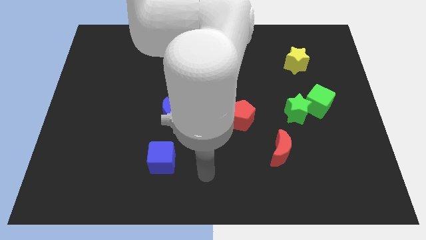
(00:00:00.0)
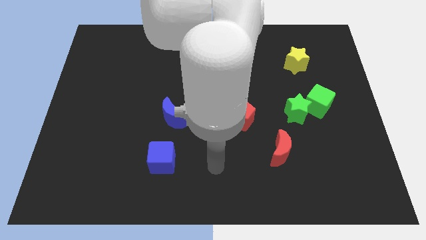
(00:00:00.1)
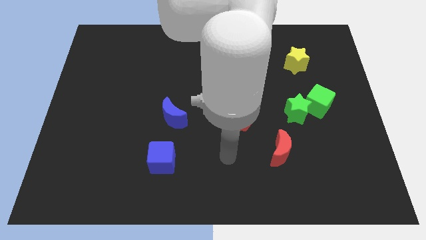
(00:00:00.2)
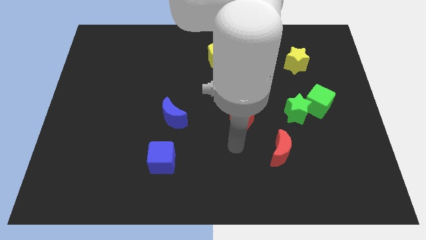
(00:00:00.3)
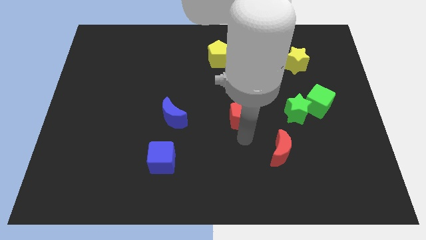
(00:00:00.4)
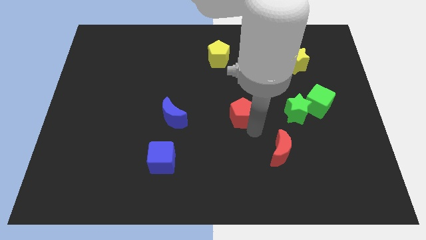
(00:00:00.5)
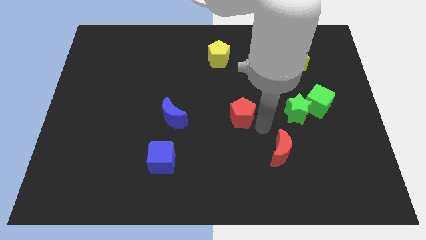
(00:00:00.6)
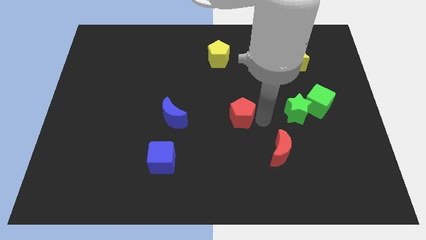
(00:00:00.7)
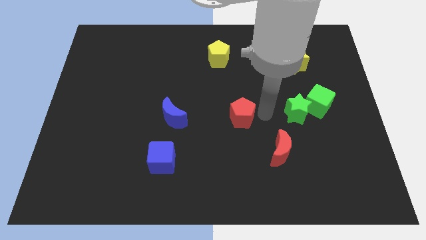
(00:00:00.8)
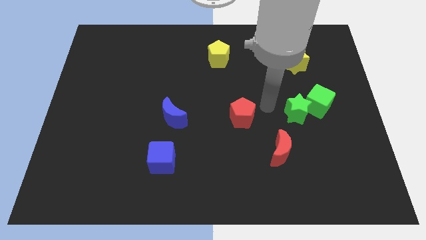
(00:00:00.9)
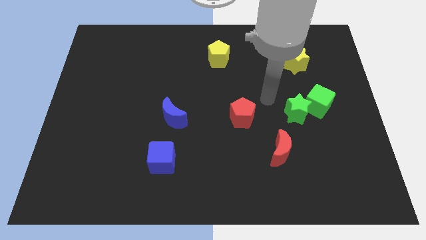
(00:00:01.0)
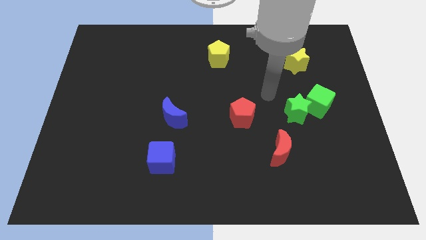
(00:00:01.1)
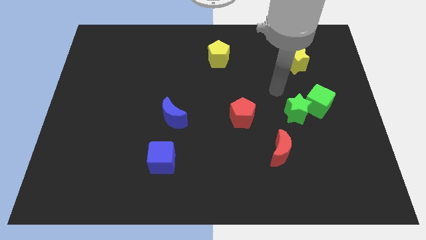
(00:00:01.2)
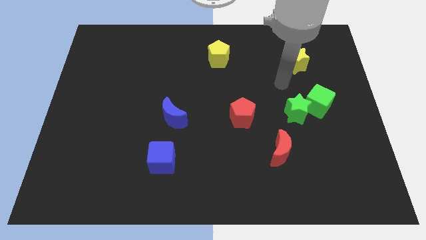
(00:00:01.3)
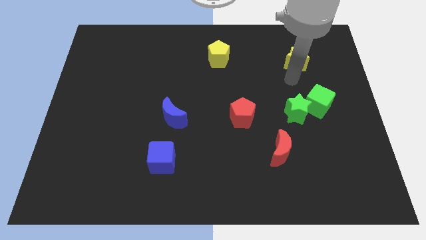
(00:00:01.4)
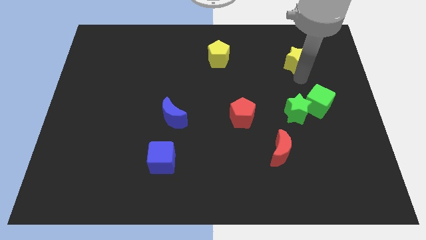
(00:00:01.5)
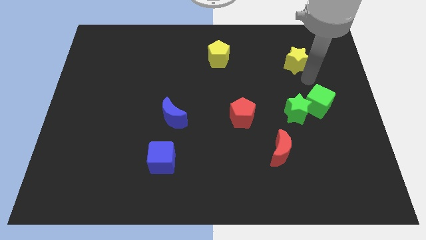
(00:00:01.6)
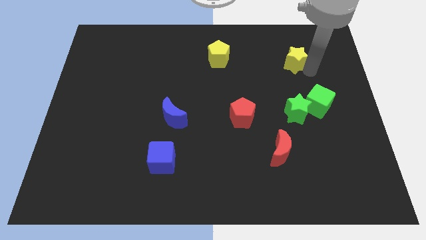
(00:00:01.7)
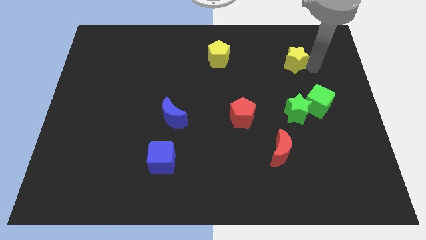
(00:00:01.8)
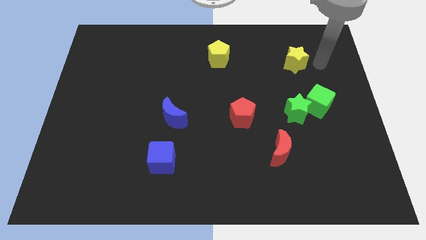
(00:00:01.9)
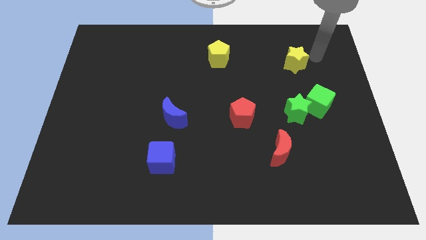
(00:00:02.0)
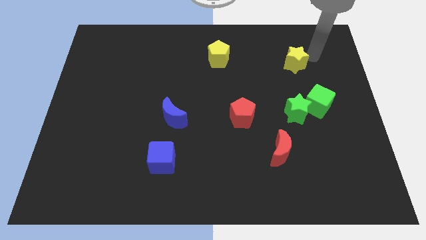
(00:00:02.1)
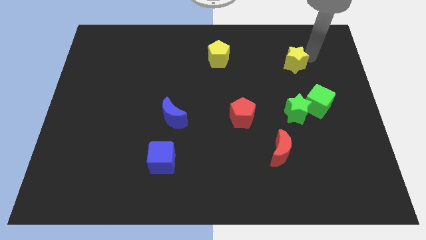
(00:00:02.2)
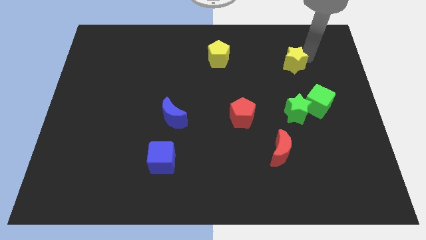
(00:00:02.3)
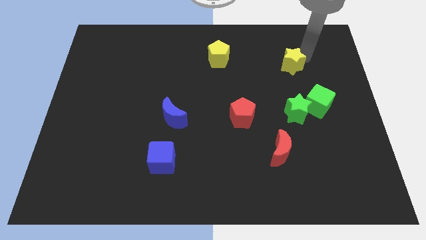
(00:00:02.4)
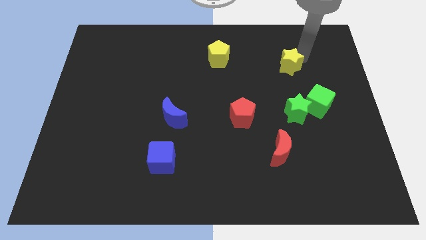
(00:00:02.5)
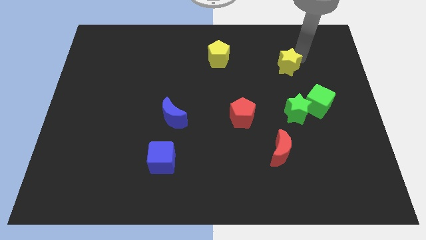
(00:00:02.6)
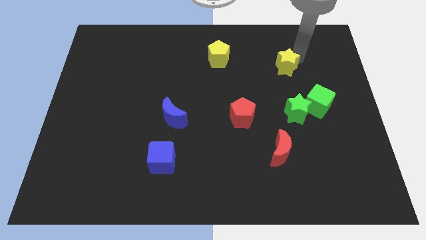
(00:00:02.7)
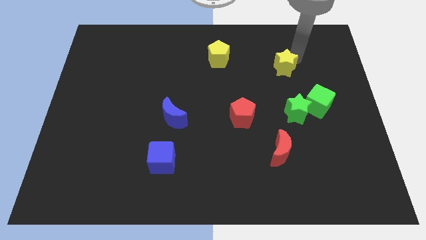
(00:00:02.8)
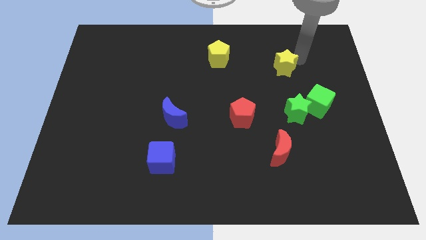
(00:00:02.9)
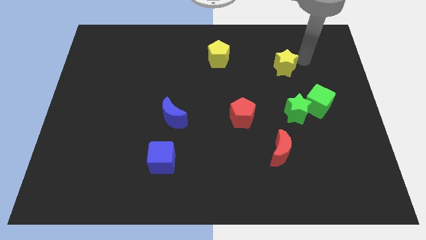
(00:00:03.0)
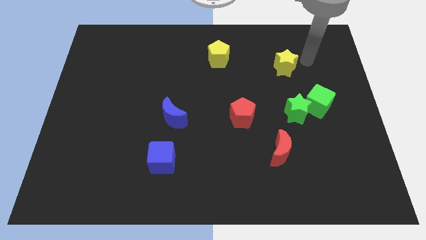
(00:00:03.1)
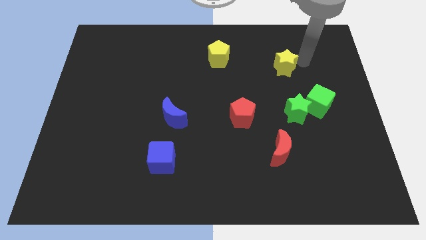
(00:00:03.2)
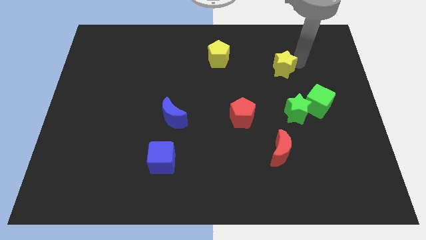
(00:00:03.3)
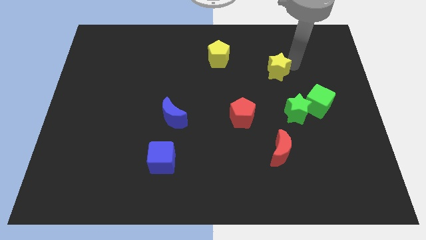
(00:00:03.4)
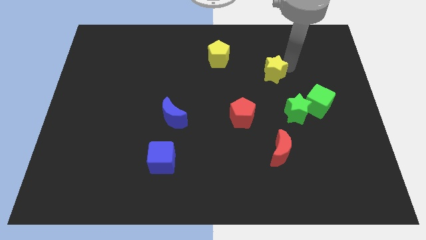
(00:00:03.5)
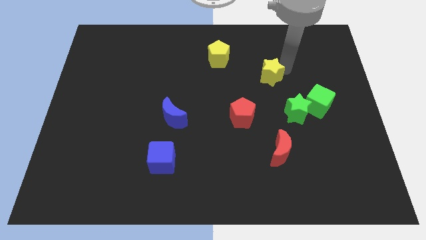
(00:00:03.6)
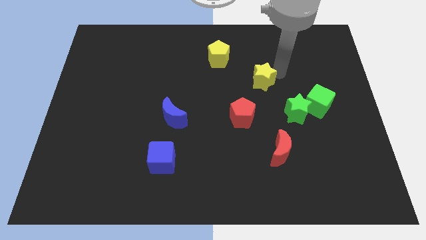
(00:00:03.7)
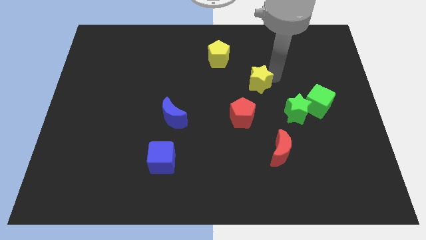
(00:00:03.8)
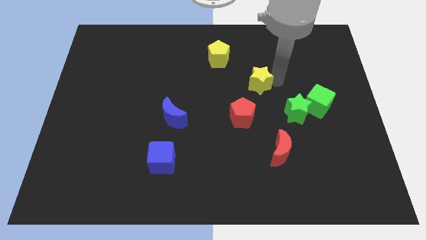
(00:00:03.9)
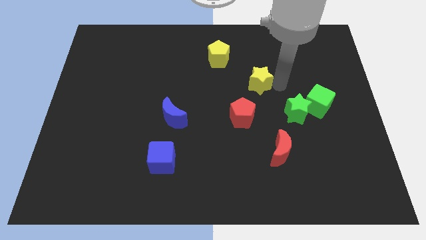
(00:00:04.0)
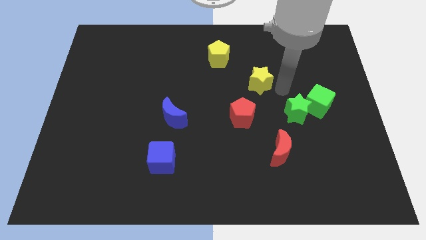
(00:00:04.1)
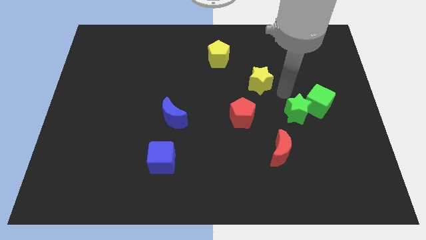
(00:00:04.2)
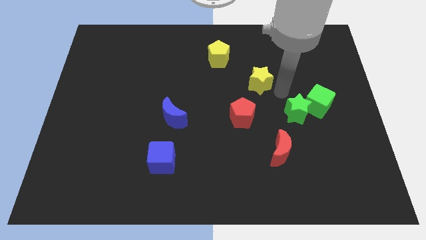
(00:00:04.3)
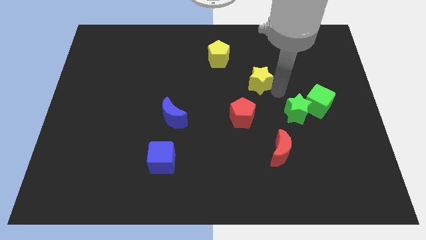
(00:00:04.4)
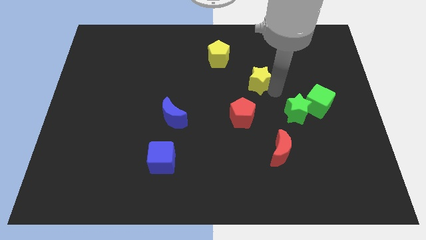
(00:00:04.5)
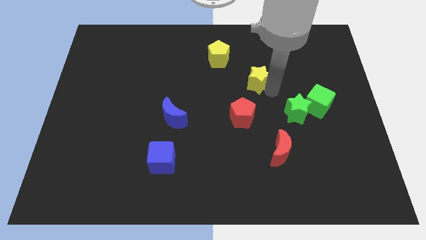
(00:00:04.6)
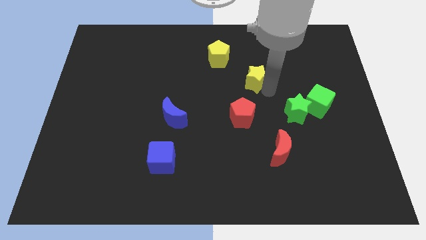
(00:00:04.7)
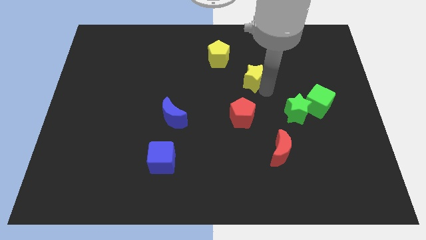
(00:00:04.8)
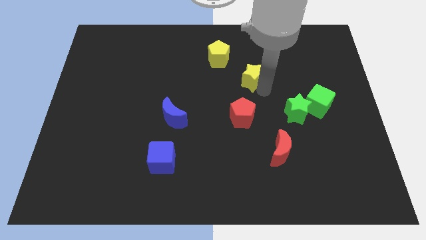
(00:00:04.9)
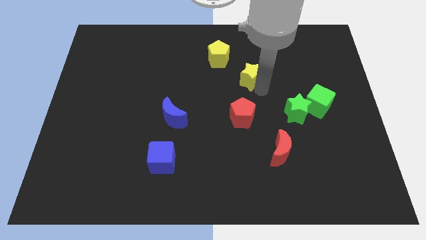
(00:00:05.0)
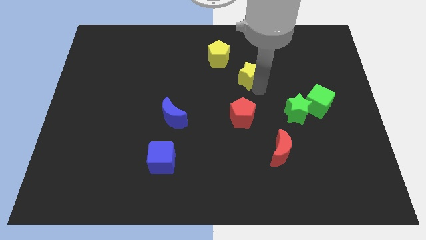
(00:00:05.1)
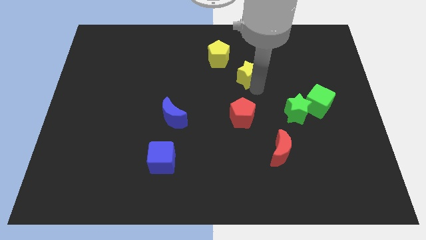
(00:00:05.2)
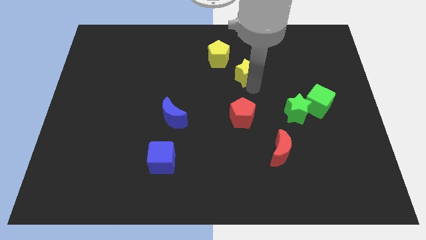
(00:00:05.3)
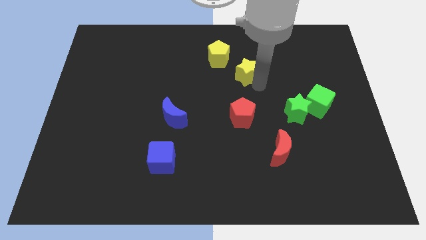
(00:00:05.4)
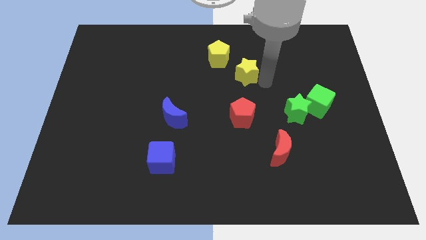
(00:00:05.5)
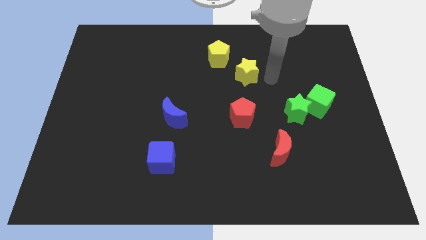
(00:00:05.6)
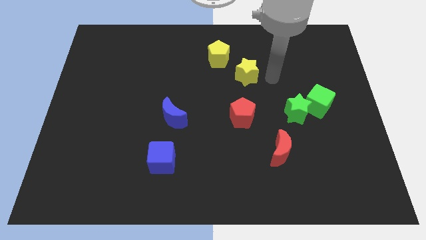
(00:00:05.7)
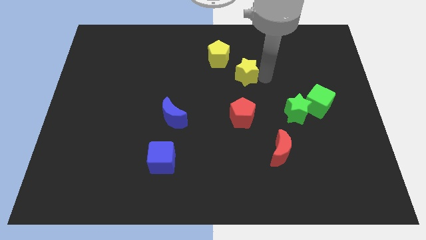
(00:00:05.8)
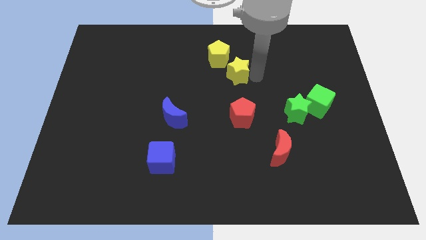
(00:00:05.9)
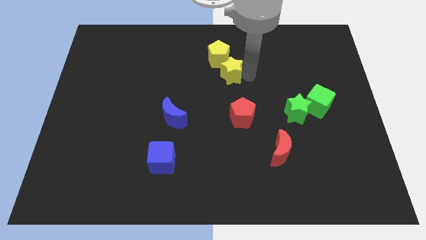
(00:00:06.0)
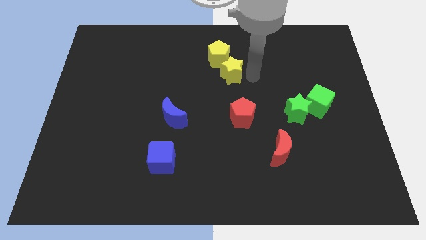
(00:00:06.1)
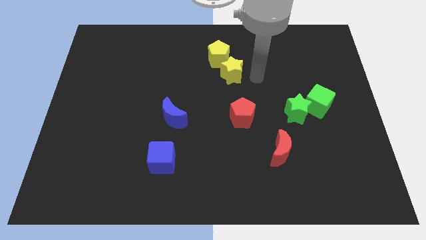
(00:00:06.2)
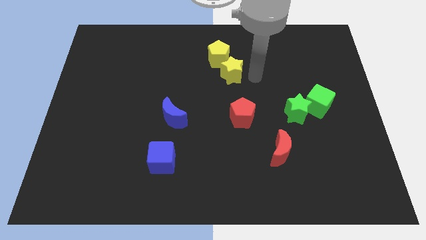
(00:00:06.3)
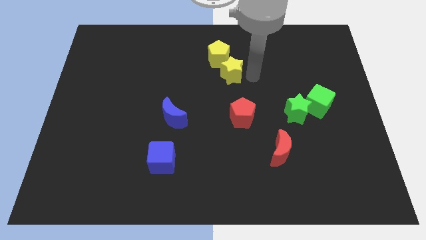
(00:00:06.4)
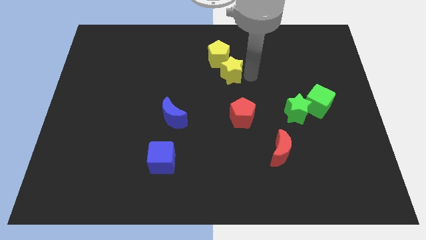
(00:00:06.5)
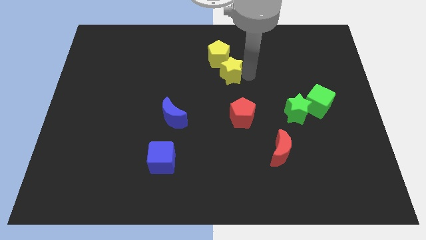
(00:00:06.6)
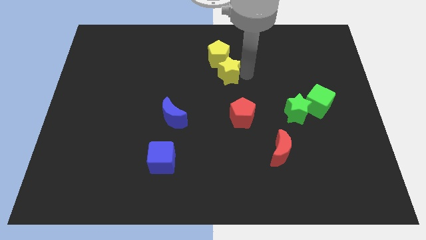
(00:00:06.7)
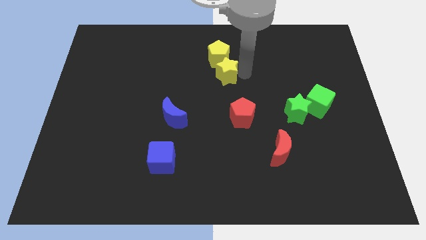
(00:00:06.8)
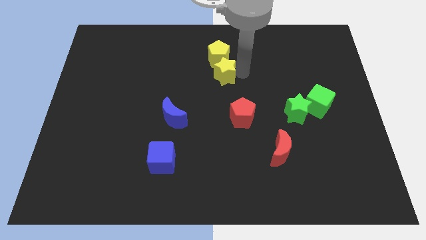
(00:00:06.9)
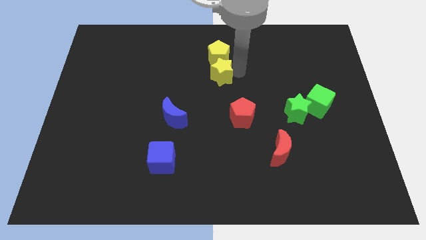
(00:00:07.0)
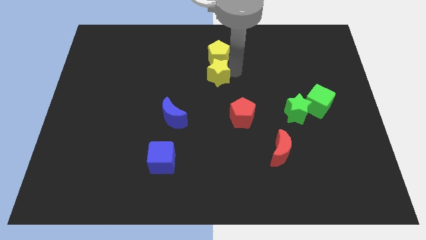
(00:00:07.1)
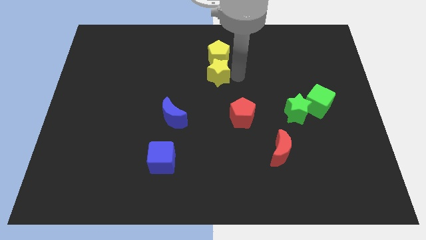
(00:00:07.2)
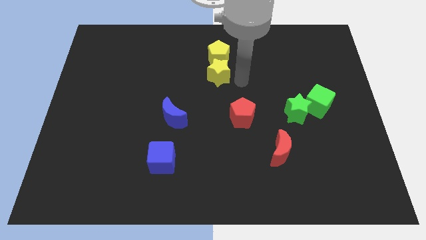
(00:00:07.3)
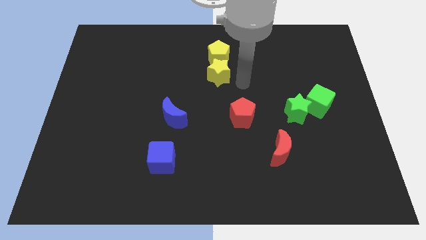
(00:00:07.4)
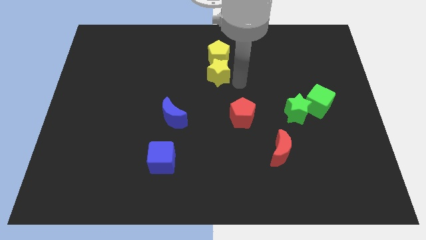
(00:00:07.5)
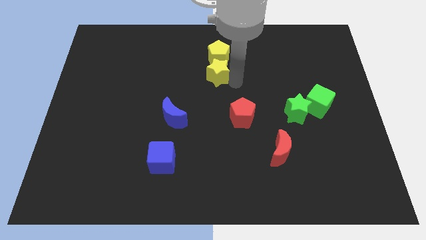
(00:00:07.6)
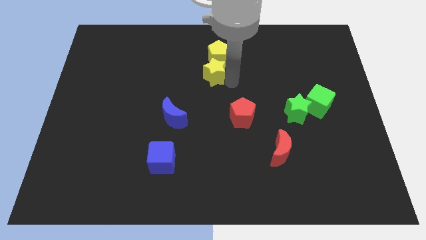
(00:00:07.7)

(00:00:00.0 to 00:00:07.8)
move the yellow star left
